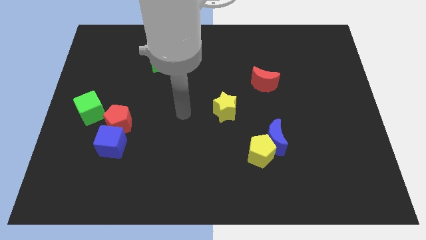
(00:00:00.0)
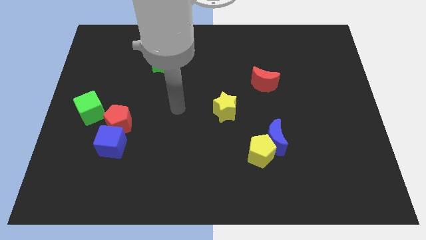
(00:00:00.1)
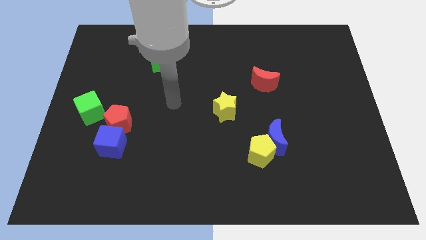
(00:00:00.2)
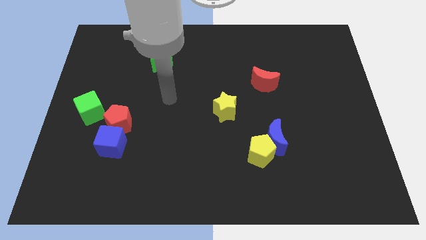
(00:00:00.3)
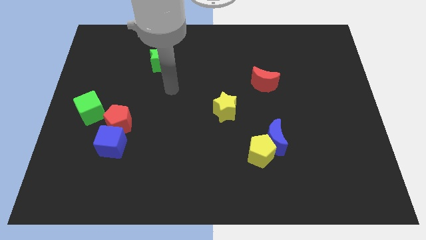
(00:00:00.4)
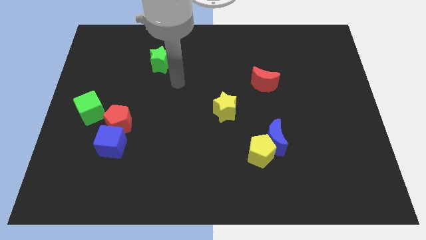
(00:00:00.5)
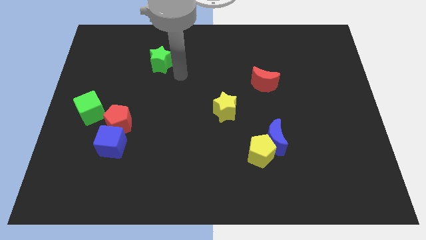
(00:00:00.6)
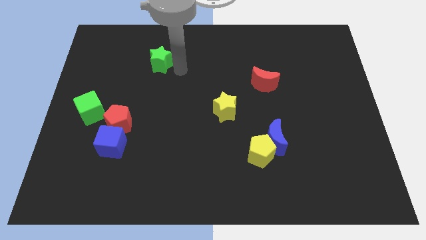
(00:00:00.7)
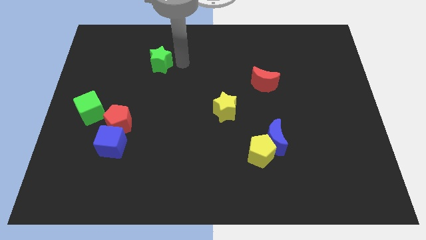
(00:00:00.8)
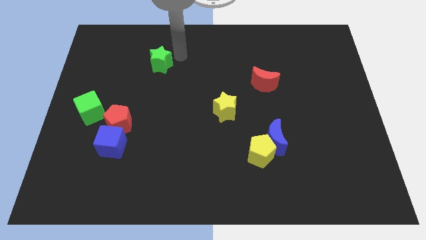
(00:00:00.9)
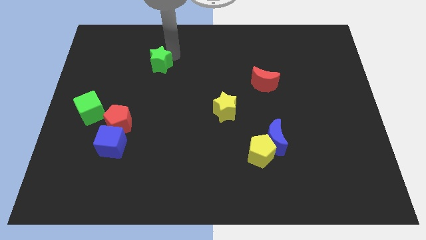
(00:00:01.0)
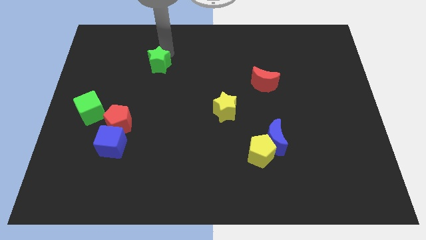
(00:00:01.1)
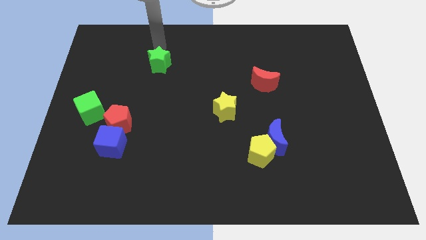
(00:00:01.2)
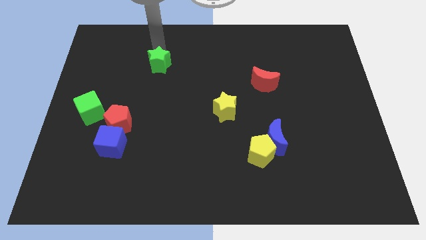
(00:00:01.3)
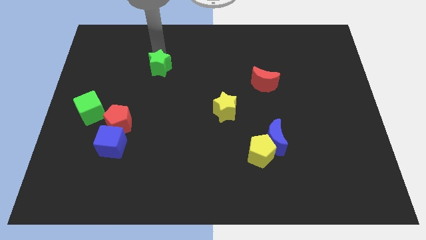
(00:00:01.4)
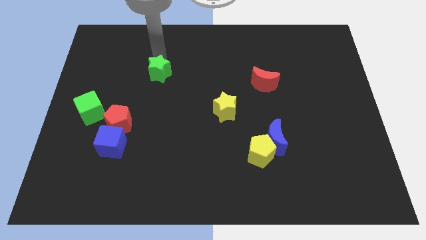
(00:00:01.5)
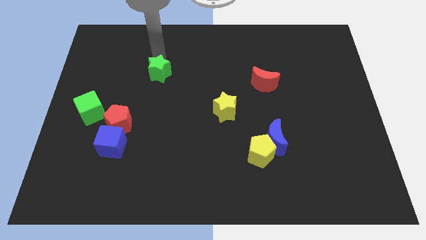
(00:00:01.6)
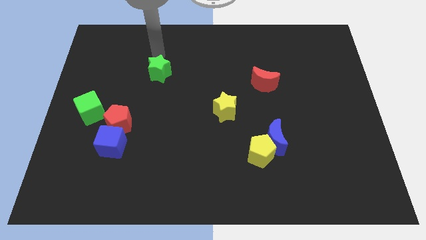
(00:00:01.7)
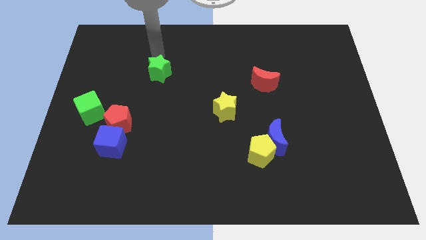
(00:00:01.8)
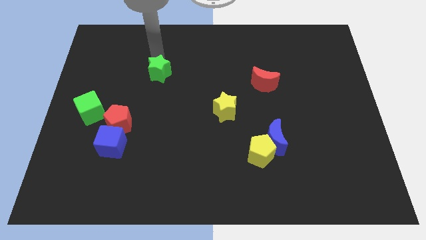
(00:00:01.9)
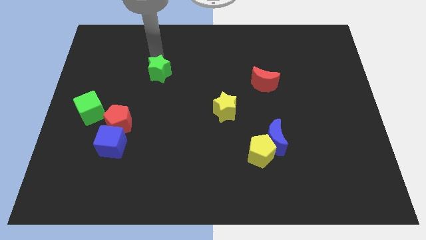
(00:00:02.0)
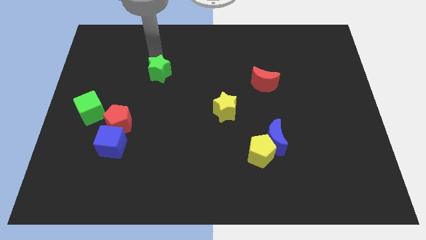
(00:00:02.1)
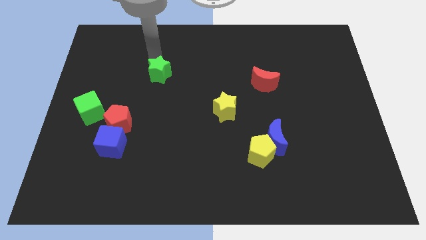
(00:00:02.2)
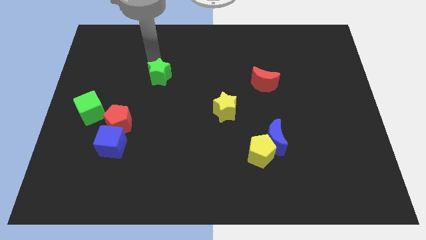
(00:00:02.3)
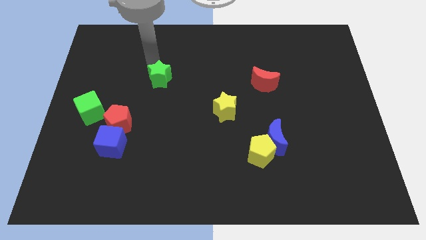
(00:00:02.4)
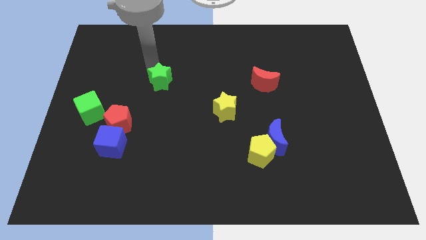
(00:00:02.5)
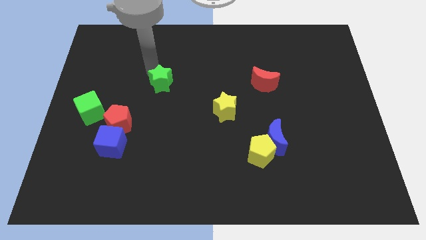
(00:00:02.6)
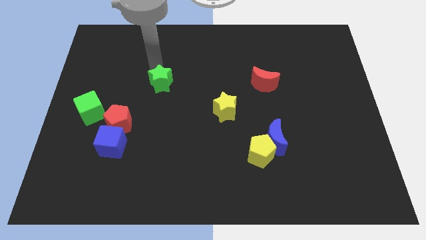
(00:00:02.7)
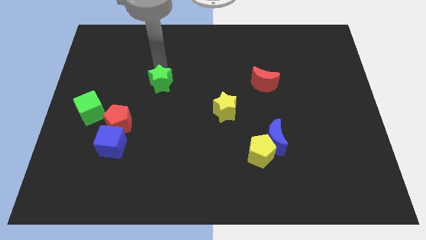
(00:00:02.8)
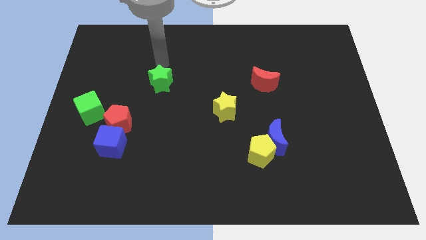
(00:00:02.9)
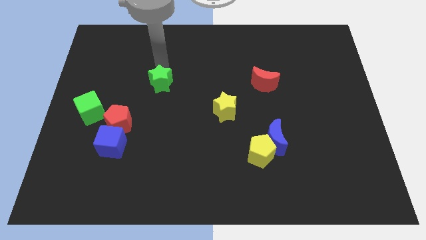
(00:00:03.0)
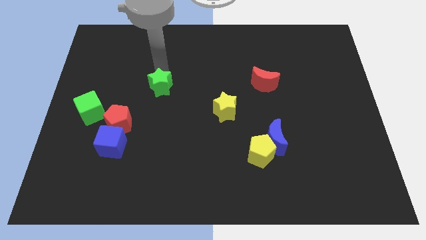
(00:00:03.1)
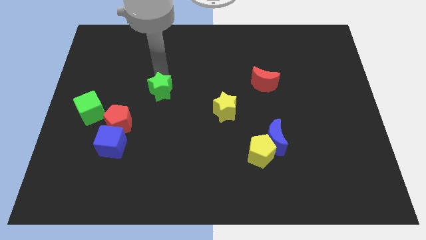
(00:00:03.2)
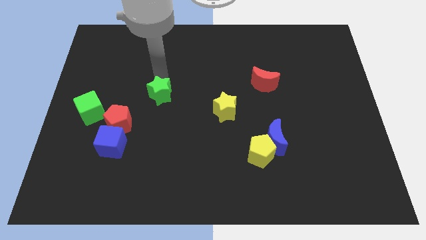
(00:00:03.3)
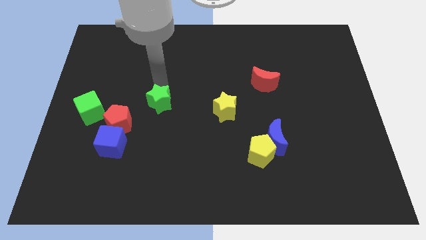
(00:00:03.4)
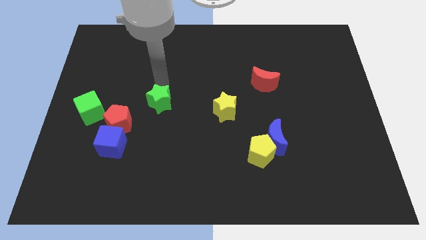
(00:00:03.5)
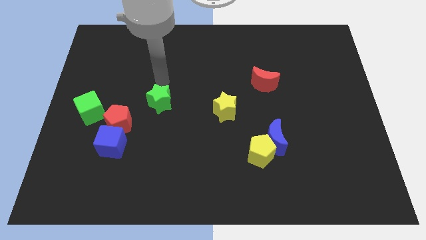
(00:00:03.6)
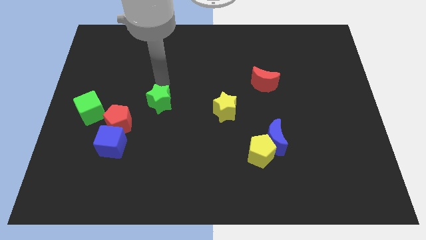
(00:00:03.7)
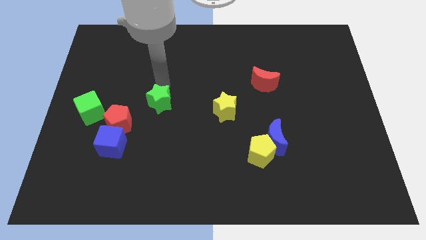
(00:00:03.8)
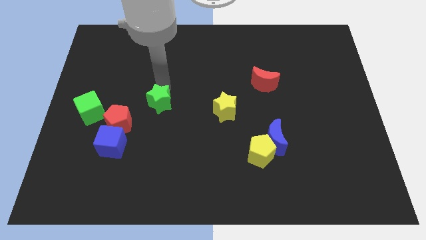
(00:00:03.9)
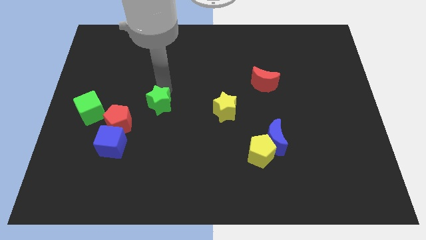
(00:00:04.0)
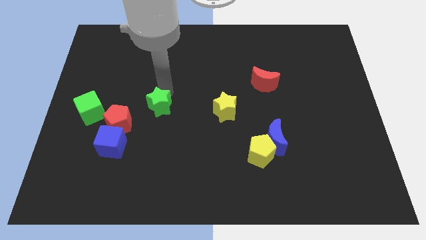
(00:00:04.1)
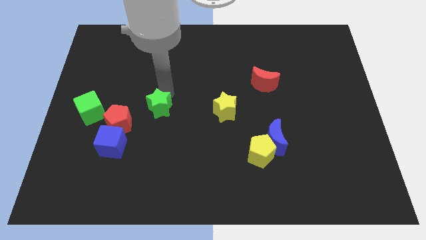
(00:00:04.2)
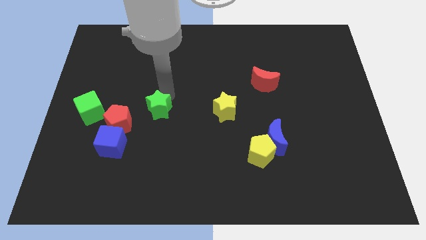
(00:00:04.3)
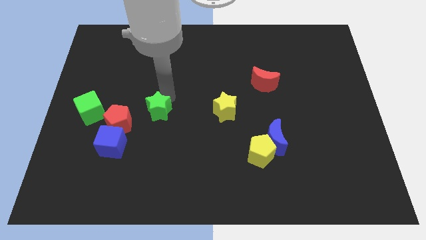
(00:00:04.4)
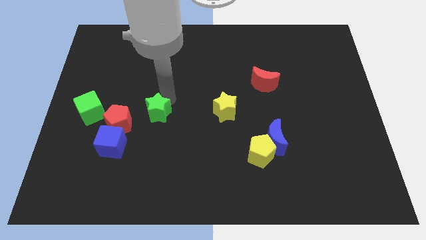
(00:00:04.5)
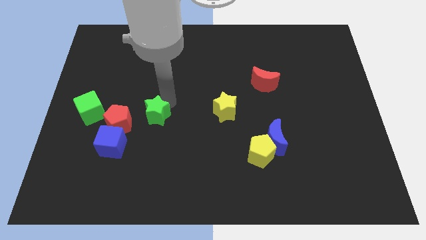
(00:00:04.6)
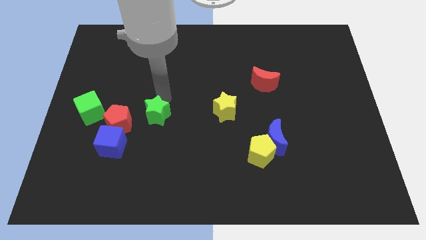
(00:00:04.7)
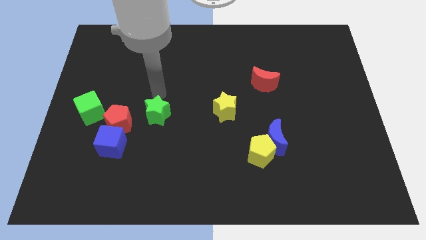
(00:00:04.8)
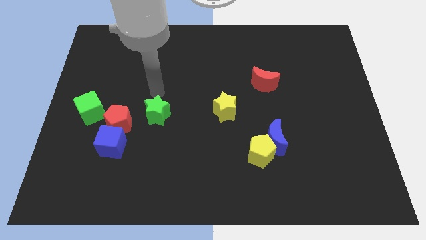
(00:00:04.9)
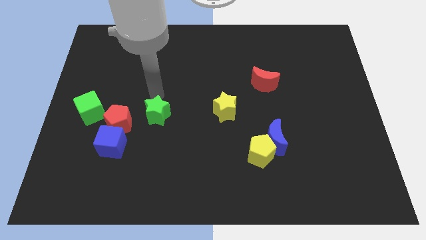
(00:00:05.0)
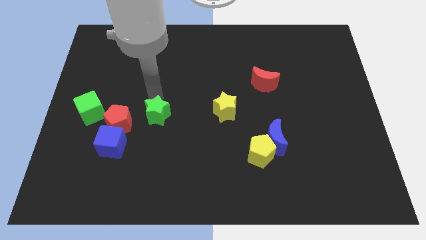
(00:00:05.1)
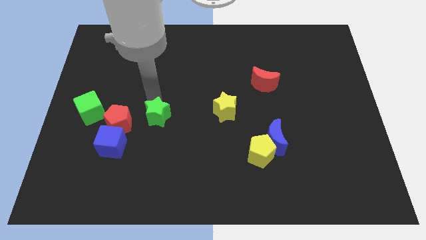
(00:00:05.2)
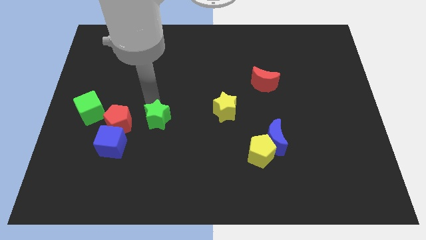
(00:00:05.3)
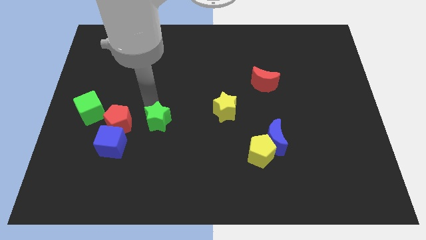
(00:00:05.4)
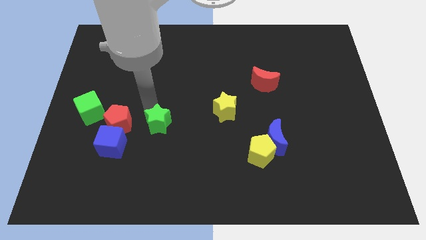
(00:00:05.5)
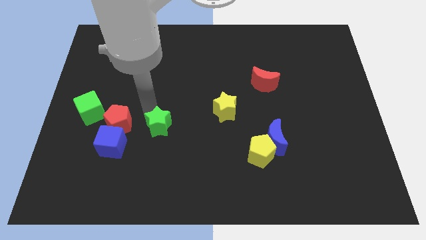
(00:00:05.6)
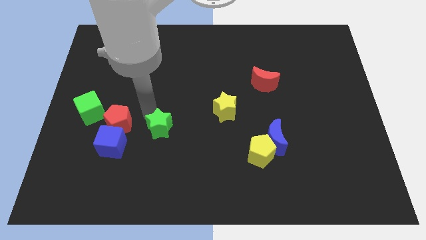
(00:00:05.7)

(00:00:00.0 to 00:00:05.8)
push the green star right of the blue cube

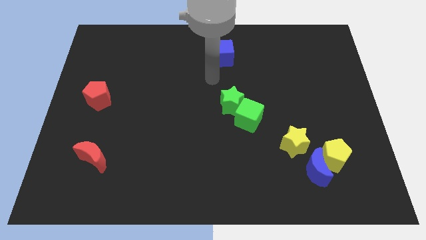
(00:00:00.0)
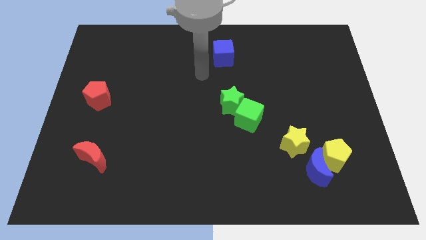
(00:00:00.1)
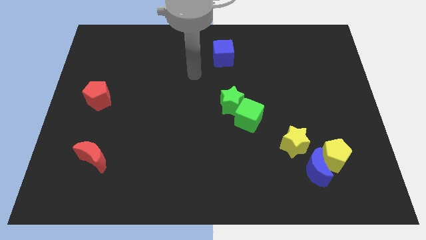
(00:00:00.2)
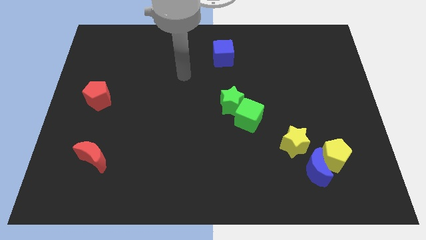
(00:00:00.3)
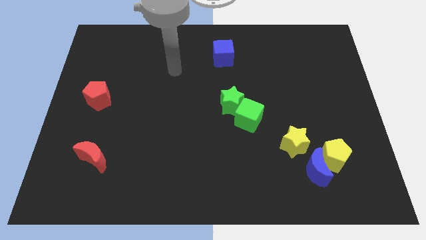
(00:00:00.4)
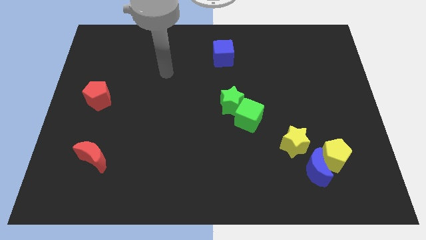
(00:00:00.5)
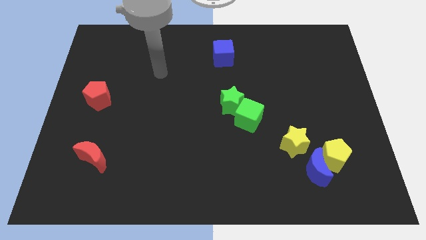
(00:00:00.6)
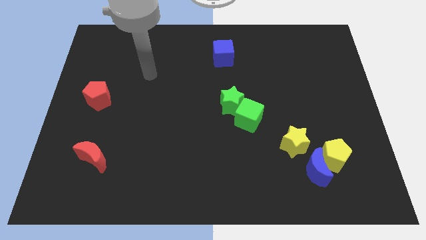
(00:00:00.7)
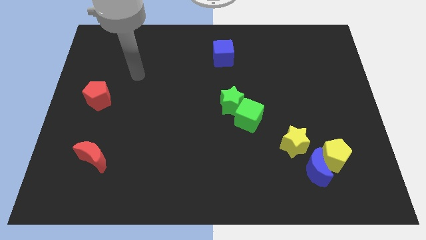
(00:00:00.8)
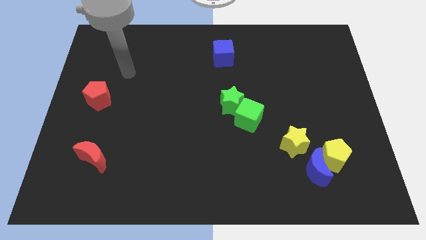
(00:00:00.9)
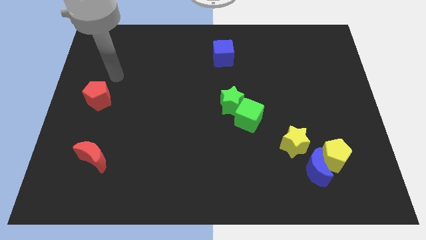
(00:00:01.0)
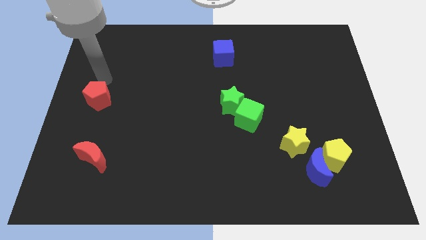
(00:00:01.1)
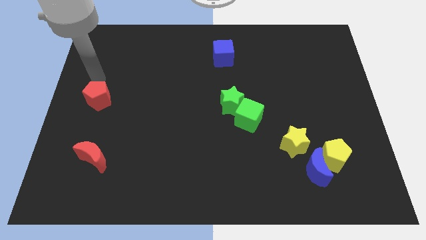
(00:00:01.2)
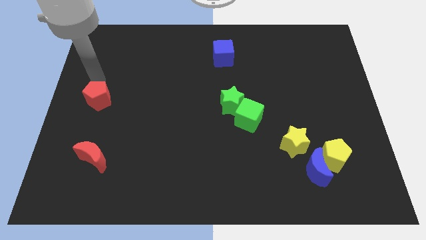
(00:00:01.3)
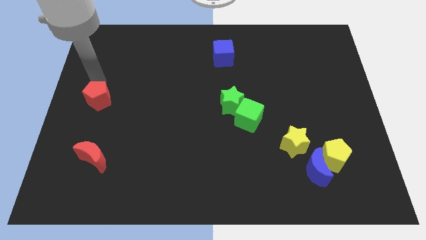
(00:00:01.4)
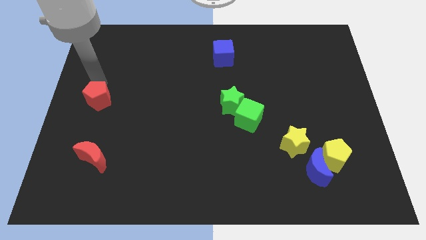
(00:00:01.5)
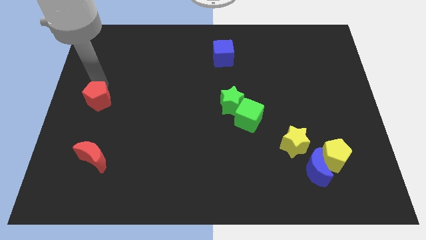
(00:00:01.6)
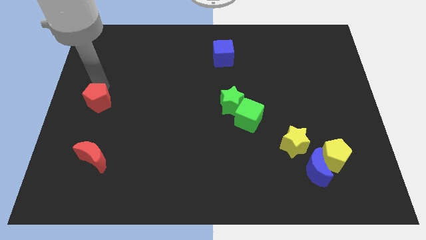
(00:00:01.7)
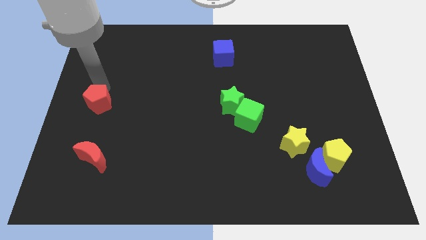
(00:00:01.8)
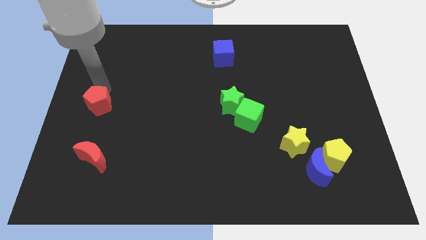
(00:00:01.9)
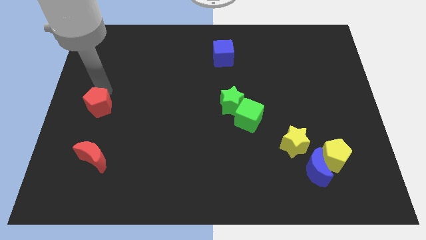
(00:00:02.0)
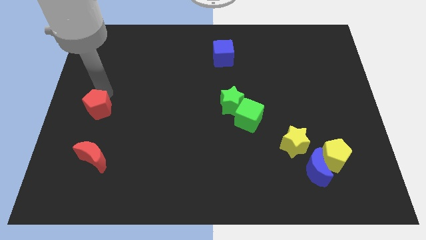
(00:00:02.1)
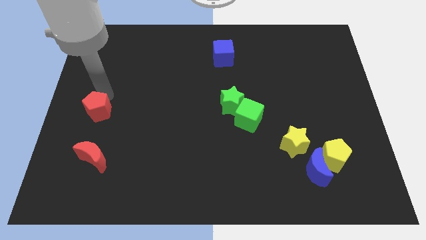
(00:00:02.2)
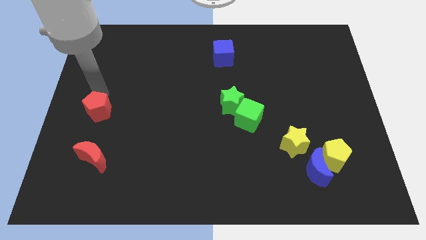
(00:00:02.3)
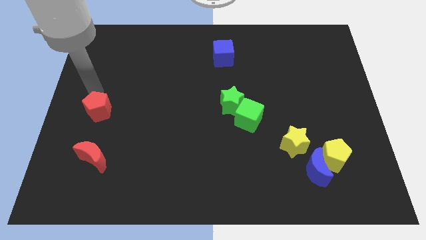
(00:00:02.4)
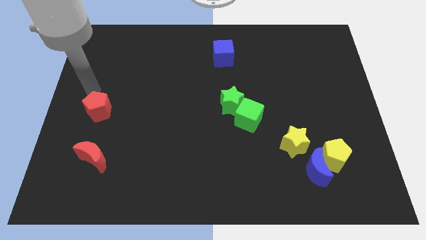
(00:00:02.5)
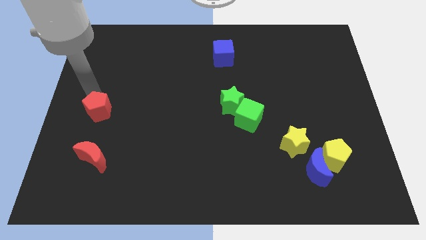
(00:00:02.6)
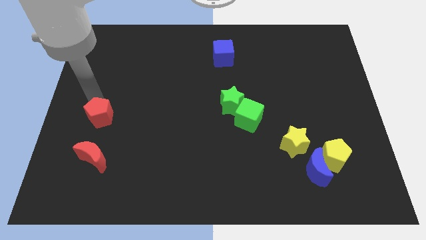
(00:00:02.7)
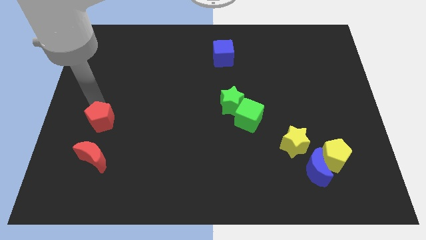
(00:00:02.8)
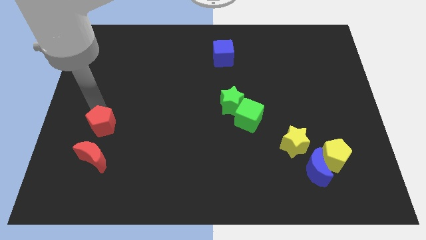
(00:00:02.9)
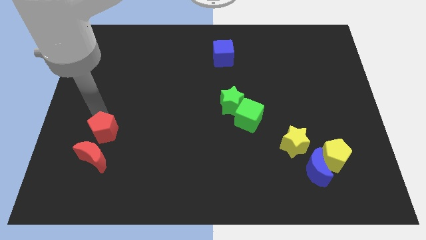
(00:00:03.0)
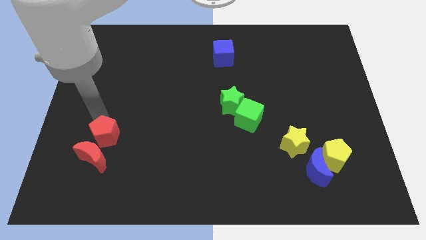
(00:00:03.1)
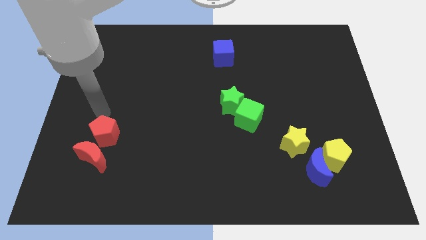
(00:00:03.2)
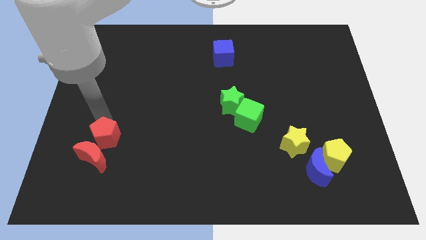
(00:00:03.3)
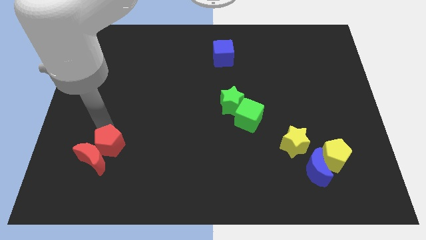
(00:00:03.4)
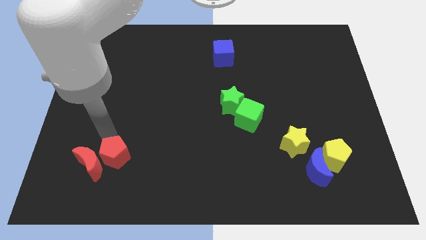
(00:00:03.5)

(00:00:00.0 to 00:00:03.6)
push the red pentagon to the bottom right of the red moon
